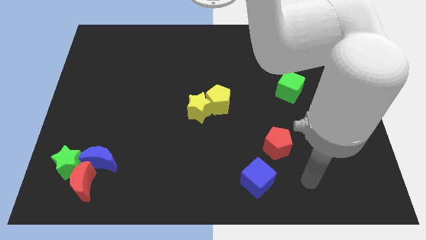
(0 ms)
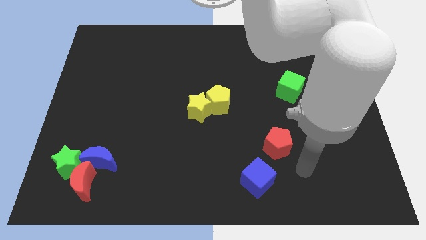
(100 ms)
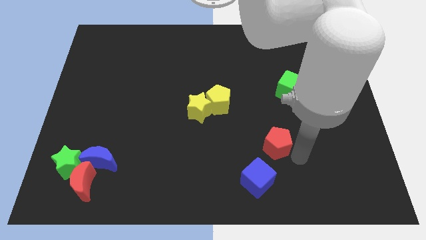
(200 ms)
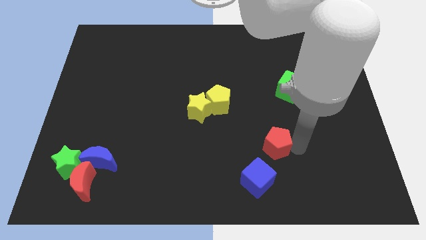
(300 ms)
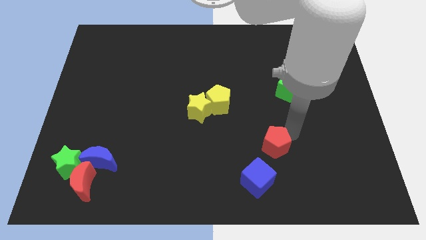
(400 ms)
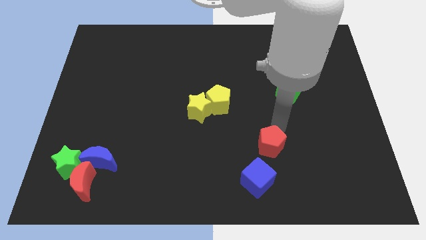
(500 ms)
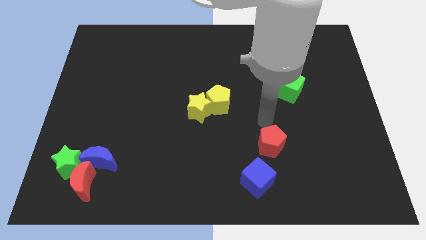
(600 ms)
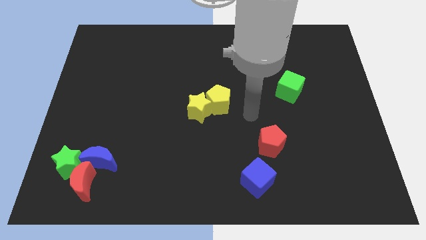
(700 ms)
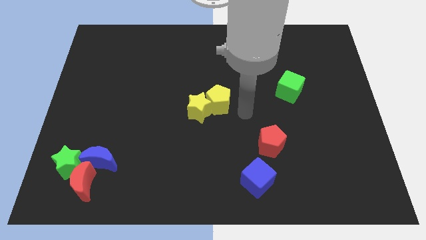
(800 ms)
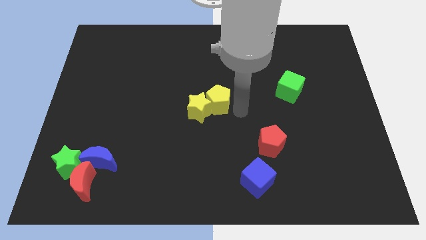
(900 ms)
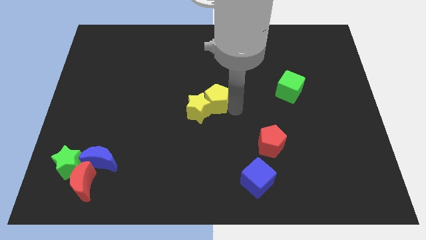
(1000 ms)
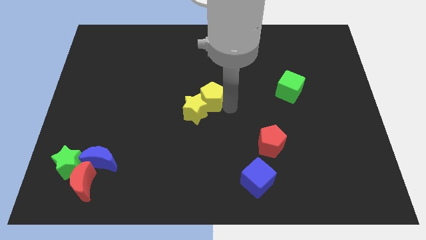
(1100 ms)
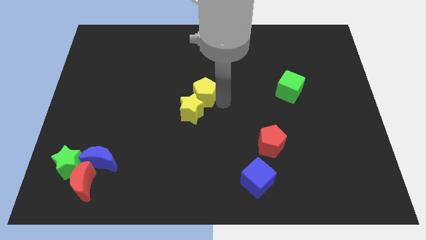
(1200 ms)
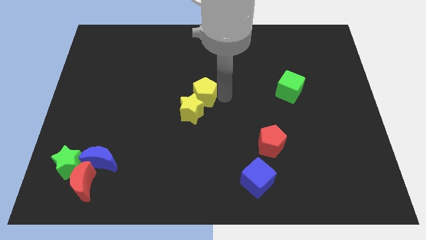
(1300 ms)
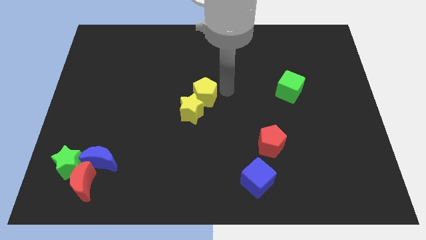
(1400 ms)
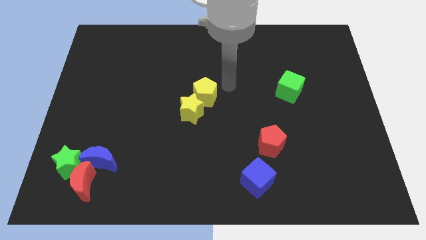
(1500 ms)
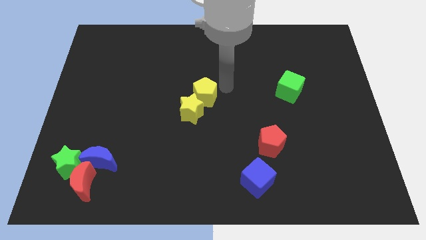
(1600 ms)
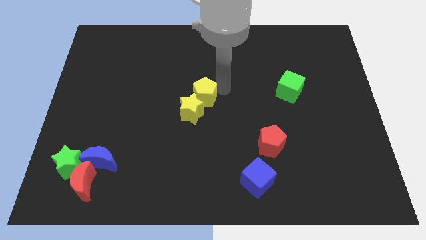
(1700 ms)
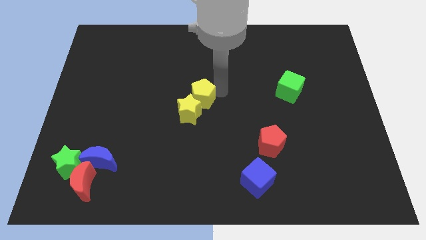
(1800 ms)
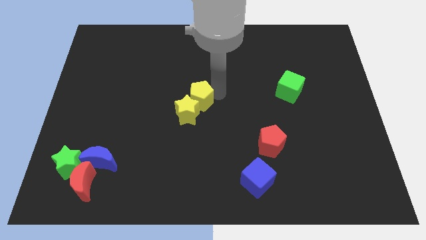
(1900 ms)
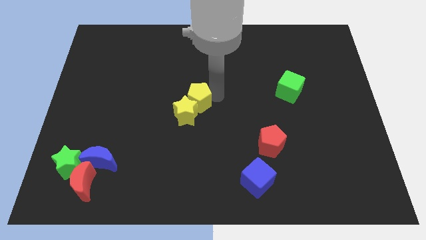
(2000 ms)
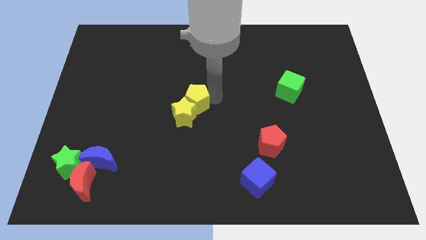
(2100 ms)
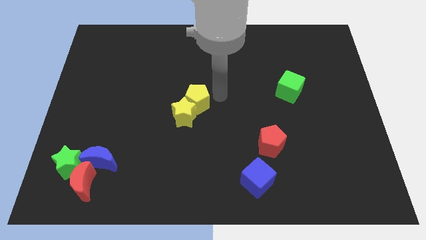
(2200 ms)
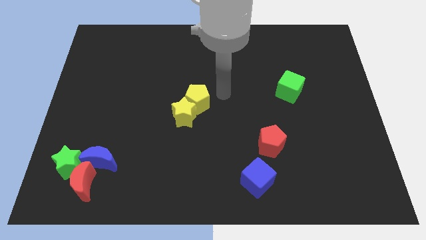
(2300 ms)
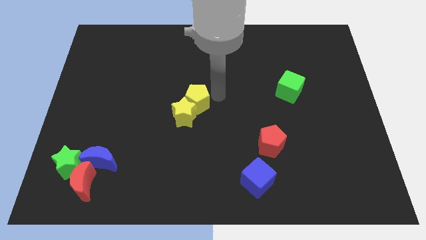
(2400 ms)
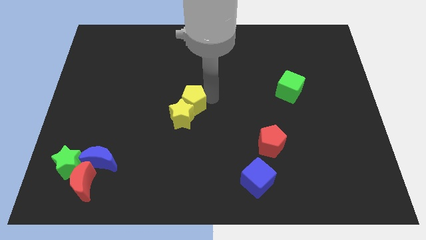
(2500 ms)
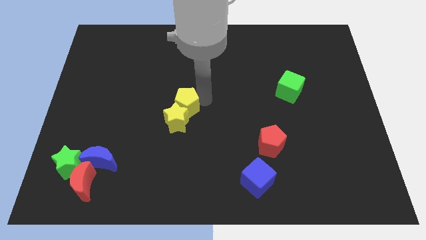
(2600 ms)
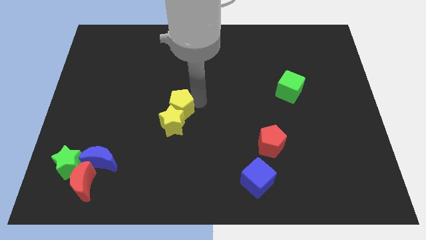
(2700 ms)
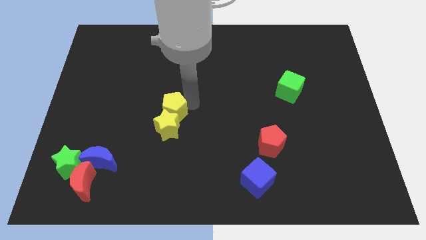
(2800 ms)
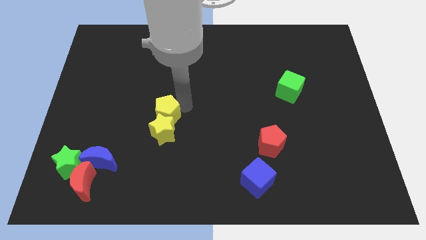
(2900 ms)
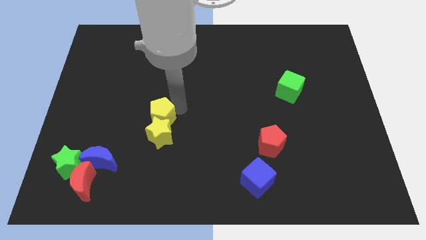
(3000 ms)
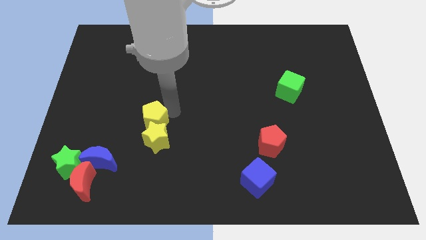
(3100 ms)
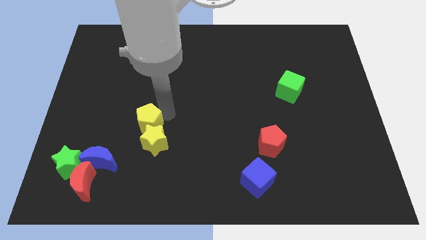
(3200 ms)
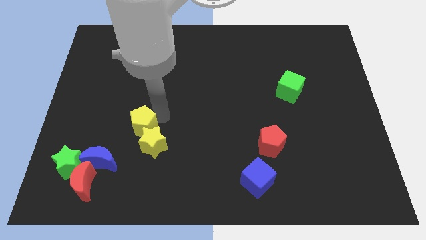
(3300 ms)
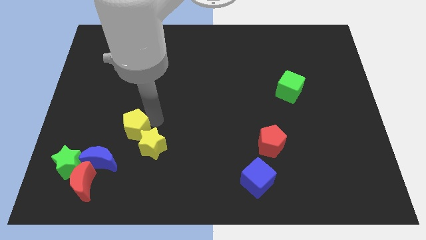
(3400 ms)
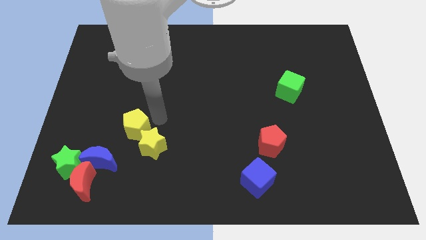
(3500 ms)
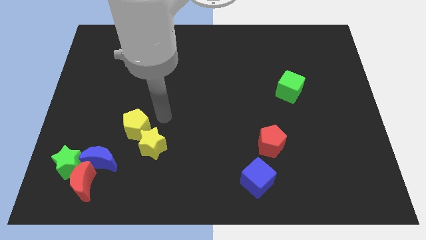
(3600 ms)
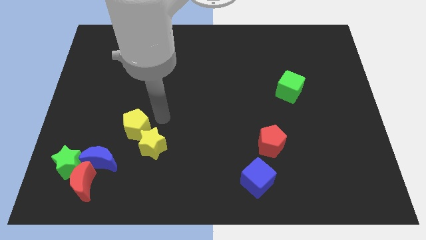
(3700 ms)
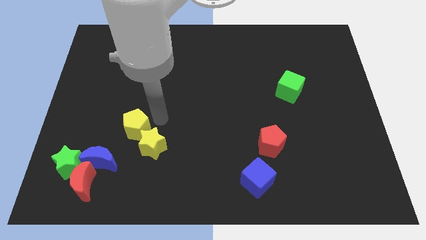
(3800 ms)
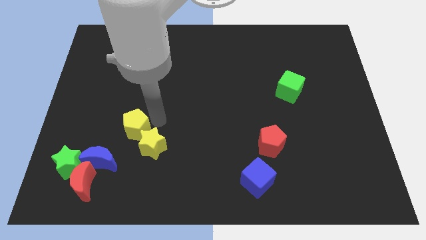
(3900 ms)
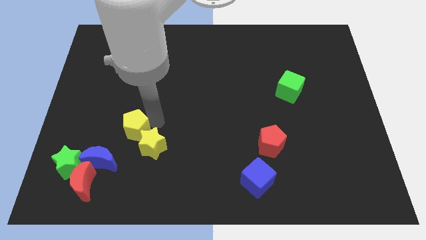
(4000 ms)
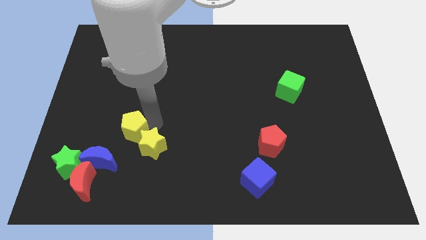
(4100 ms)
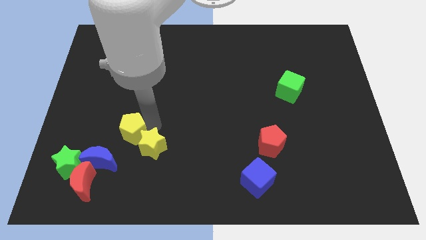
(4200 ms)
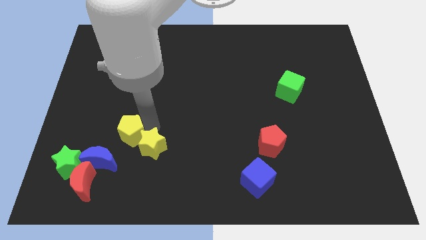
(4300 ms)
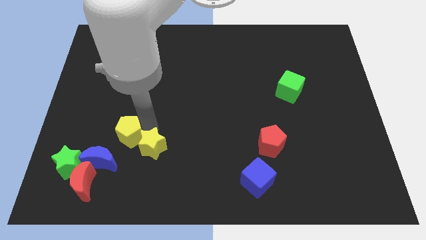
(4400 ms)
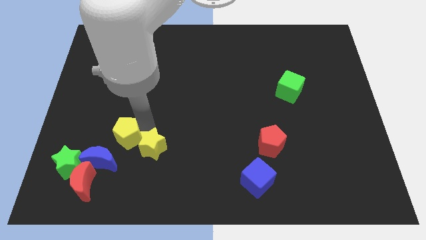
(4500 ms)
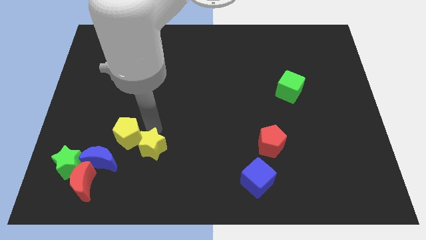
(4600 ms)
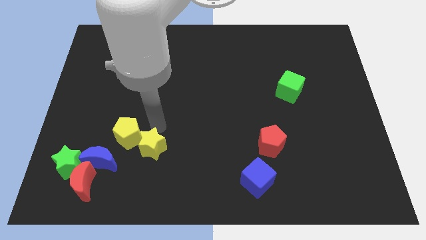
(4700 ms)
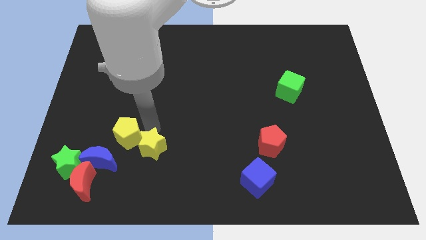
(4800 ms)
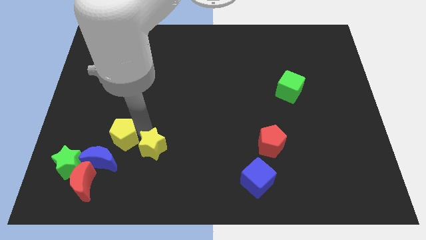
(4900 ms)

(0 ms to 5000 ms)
move the yellow pentagon diagonally up and to the right of the green star

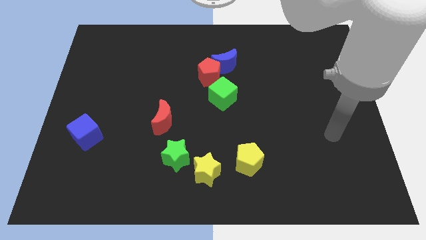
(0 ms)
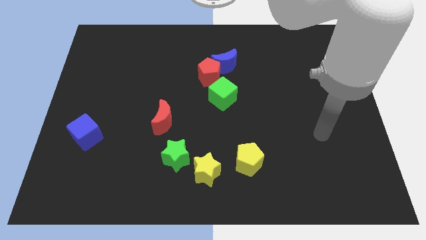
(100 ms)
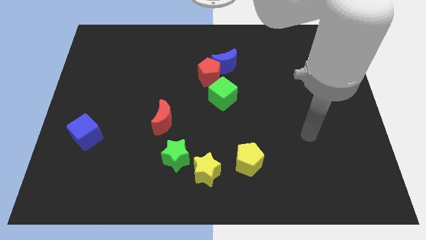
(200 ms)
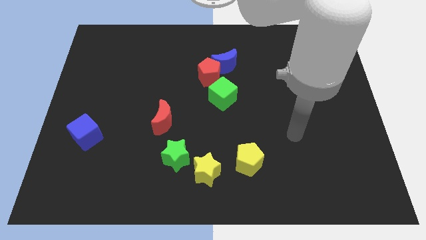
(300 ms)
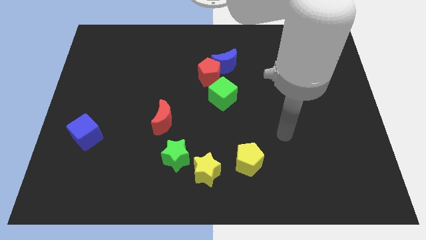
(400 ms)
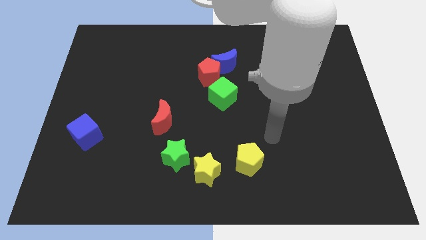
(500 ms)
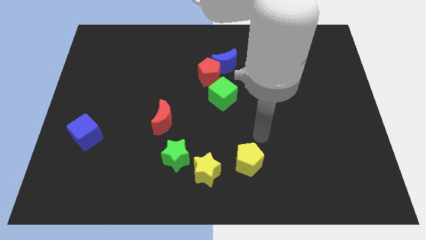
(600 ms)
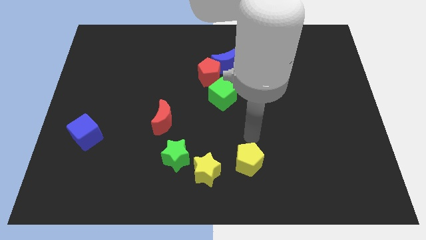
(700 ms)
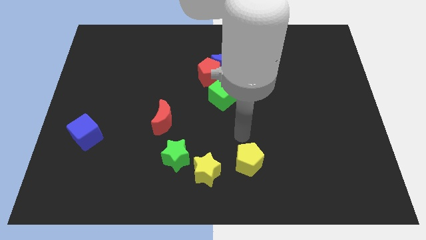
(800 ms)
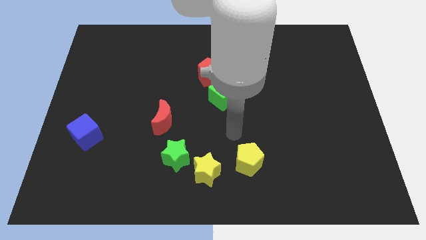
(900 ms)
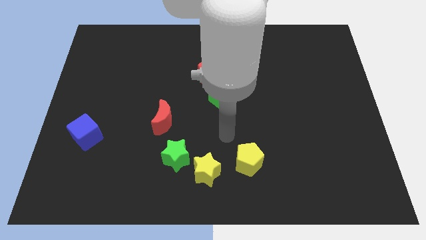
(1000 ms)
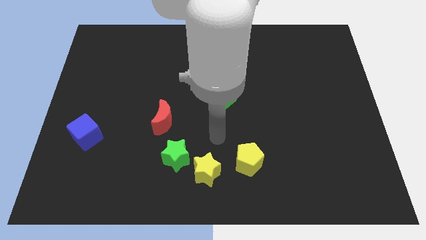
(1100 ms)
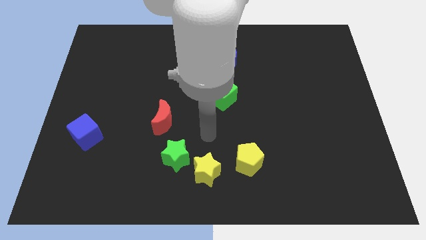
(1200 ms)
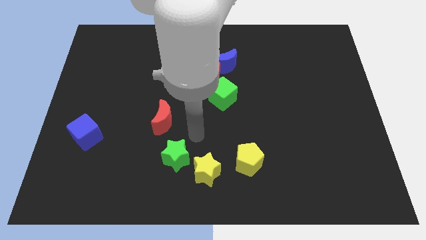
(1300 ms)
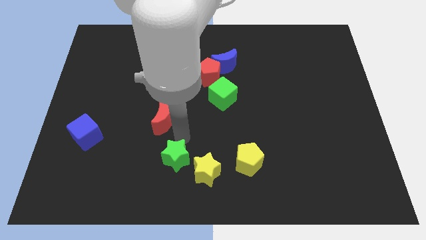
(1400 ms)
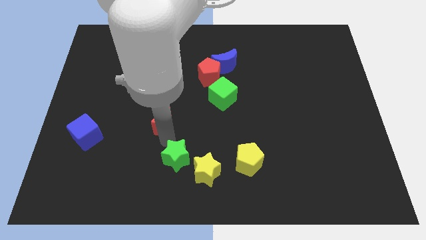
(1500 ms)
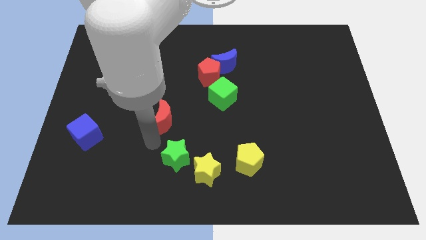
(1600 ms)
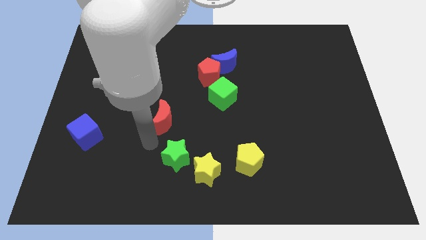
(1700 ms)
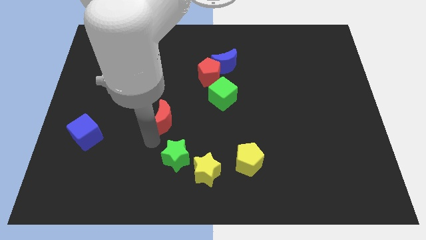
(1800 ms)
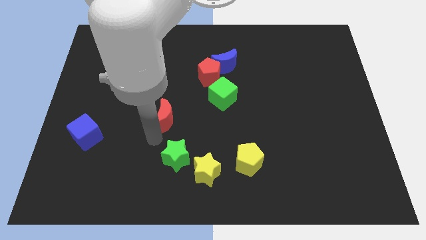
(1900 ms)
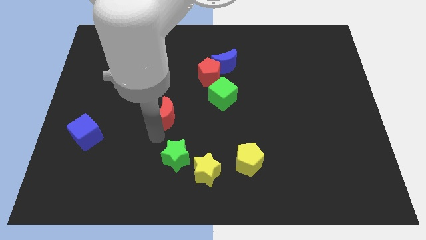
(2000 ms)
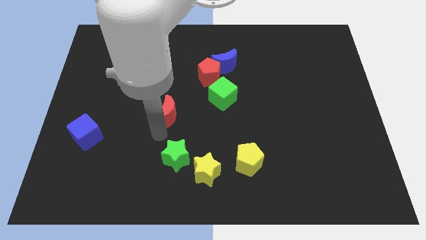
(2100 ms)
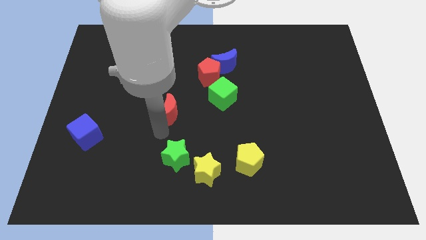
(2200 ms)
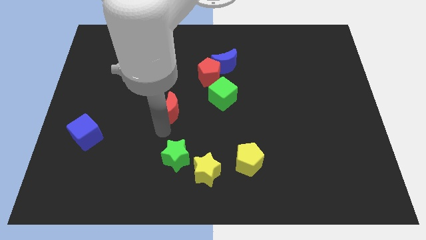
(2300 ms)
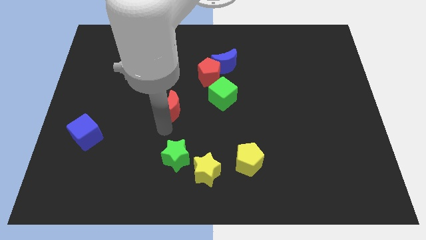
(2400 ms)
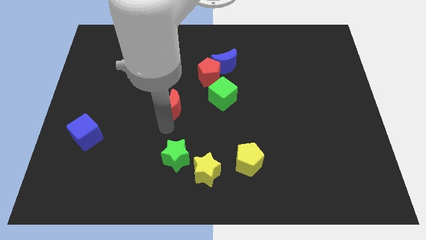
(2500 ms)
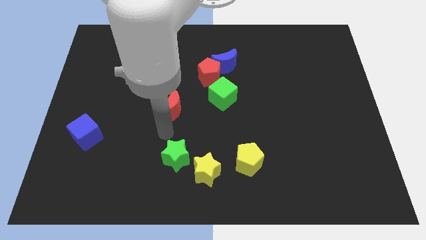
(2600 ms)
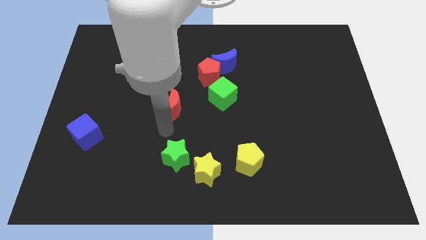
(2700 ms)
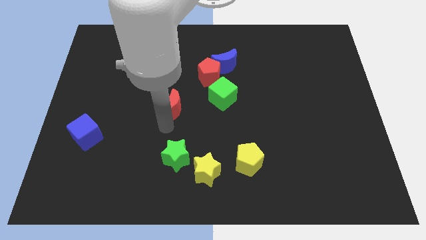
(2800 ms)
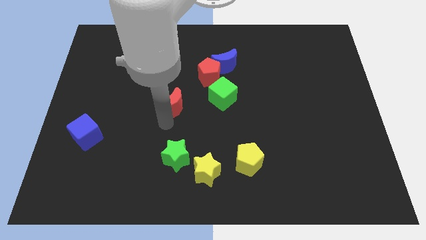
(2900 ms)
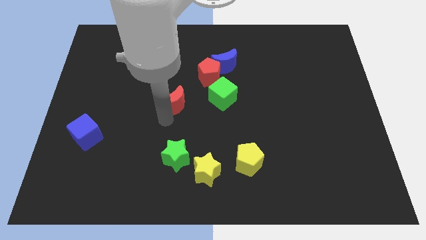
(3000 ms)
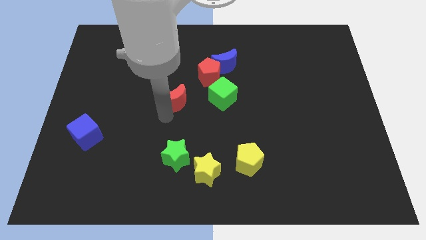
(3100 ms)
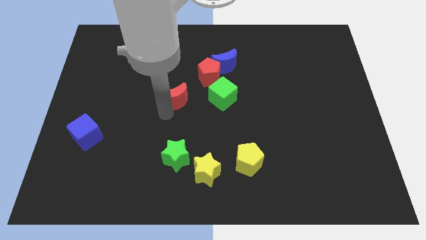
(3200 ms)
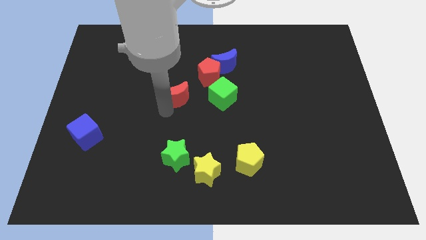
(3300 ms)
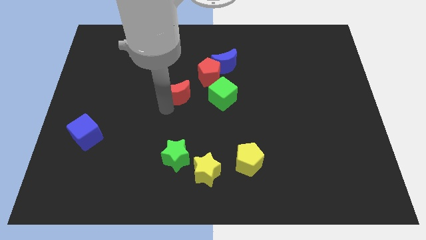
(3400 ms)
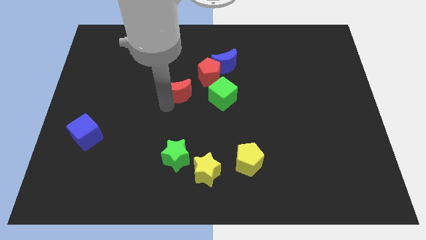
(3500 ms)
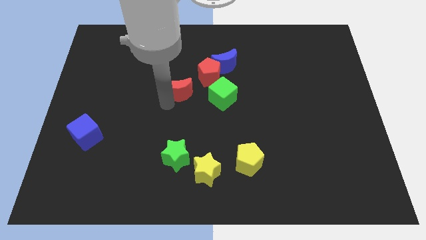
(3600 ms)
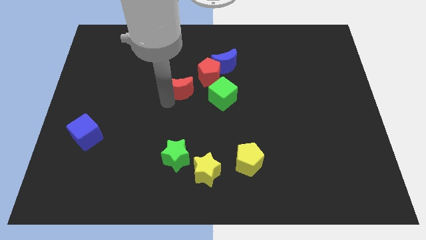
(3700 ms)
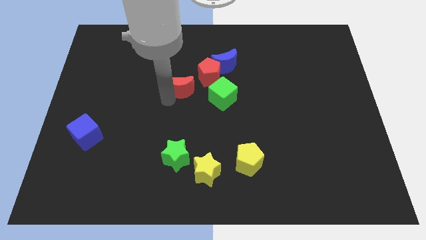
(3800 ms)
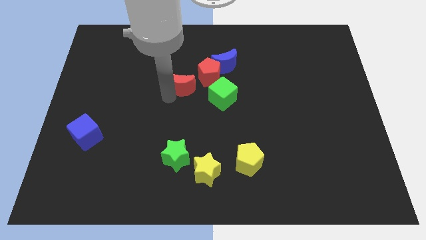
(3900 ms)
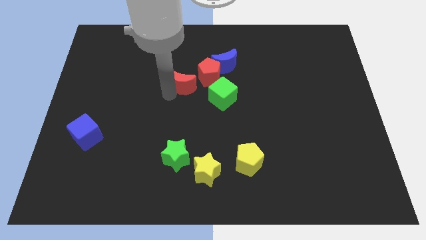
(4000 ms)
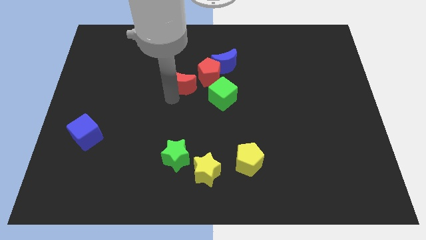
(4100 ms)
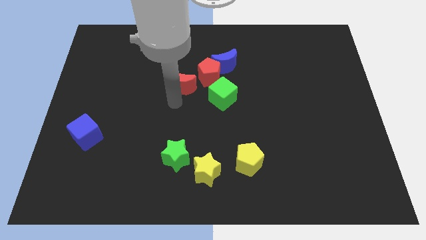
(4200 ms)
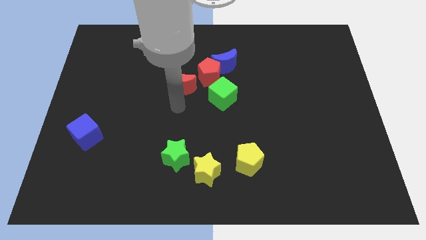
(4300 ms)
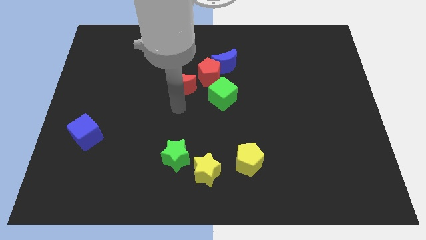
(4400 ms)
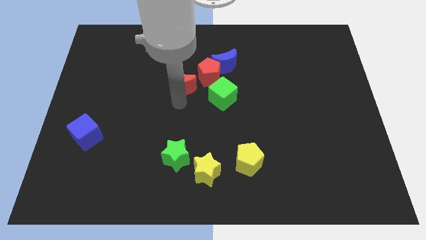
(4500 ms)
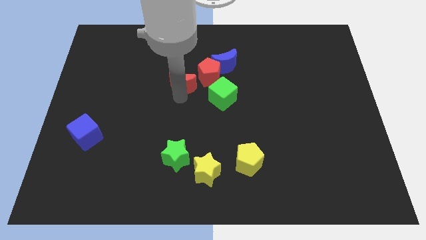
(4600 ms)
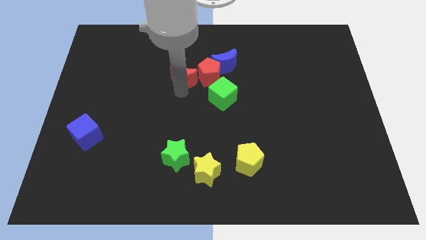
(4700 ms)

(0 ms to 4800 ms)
slide the red moon to the left side of the blue moon
